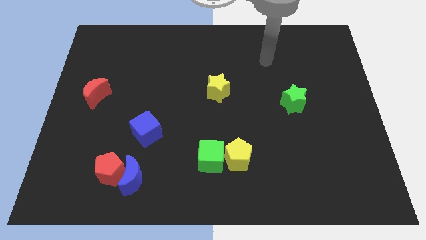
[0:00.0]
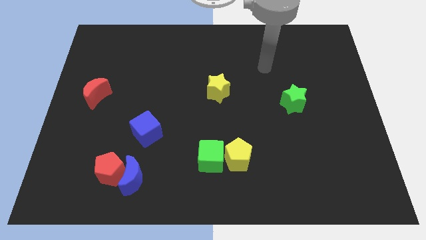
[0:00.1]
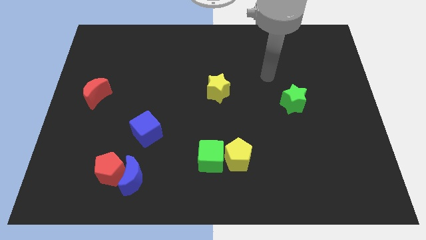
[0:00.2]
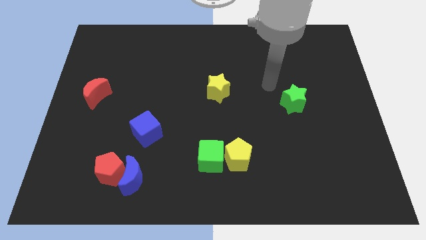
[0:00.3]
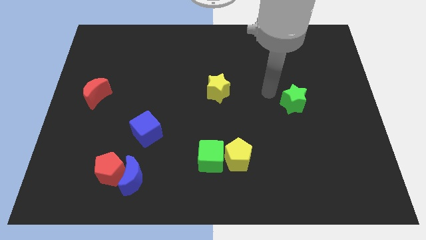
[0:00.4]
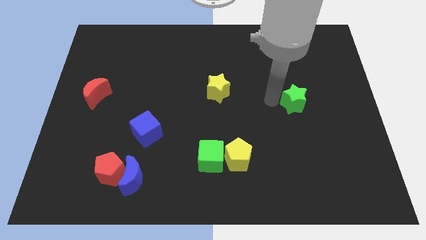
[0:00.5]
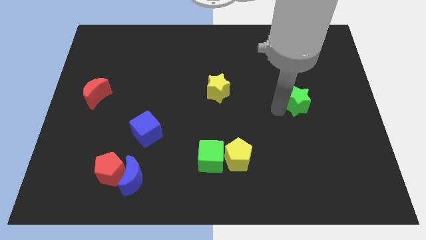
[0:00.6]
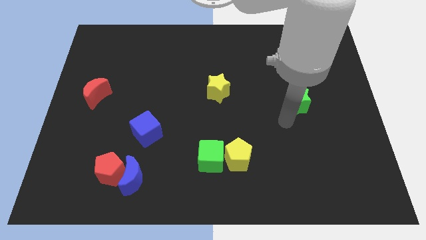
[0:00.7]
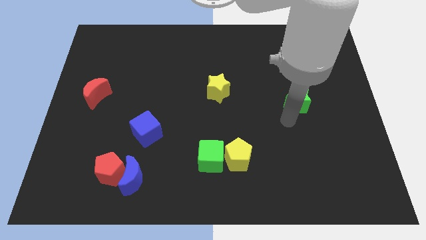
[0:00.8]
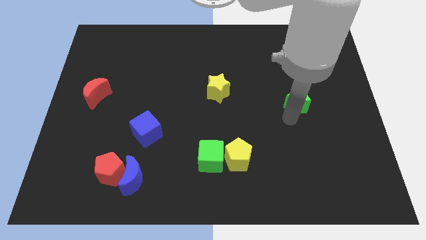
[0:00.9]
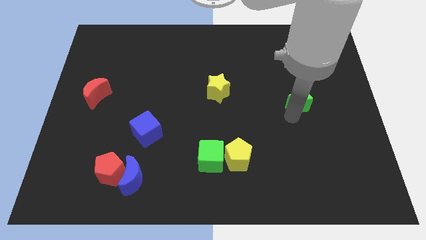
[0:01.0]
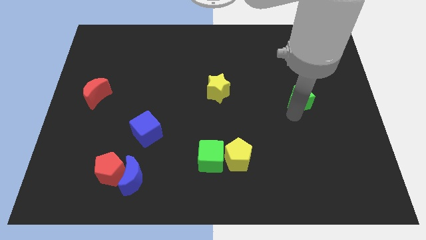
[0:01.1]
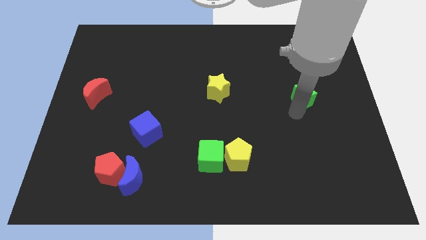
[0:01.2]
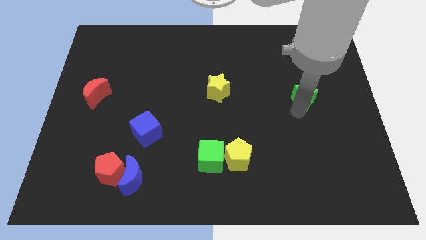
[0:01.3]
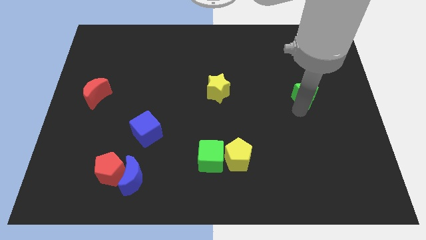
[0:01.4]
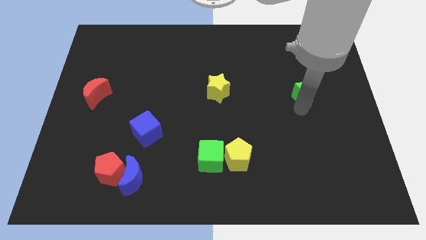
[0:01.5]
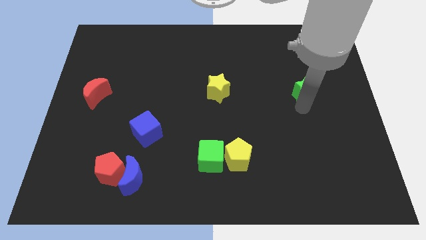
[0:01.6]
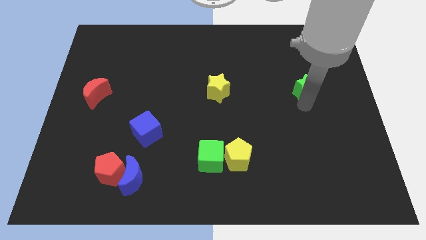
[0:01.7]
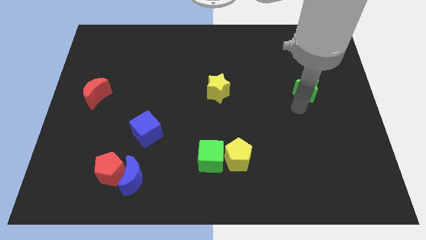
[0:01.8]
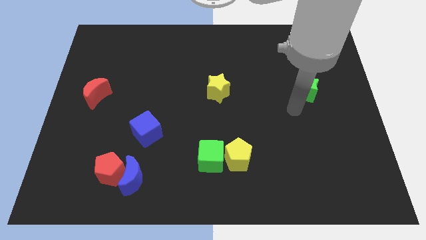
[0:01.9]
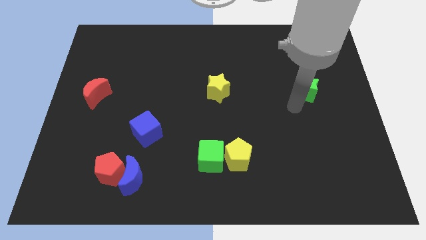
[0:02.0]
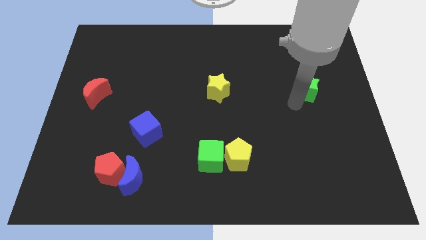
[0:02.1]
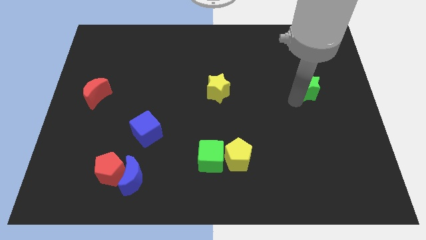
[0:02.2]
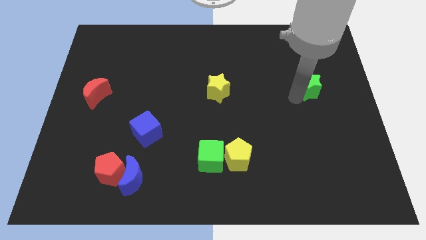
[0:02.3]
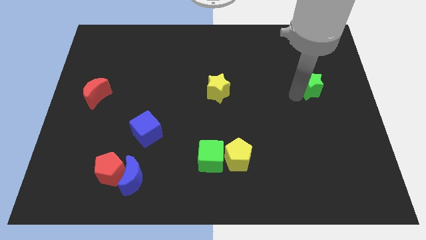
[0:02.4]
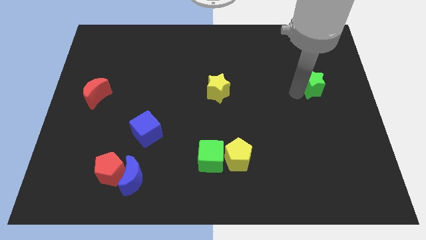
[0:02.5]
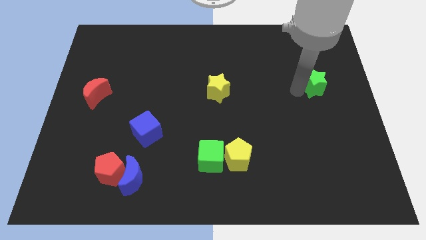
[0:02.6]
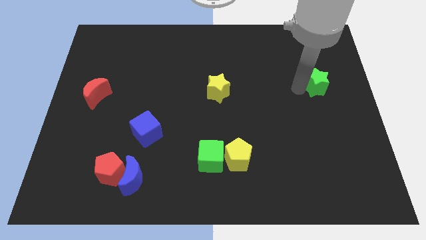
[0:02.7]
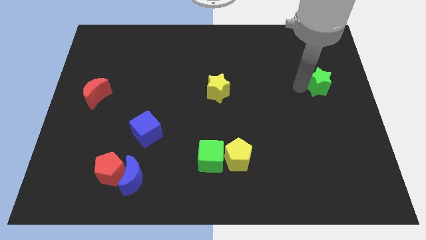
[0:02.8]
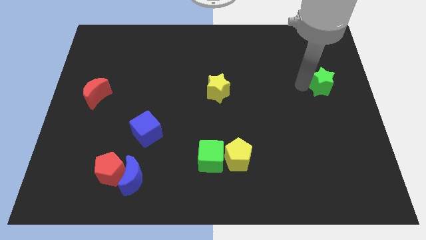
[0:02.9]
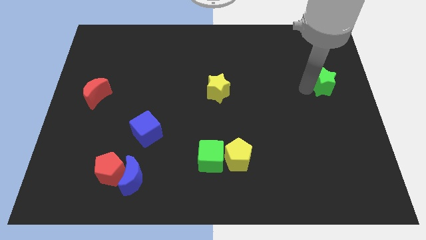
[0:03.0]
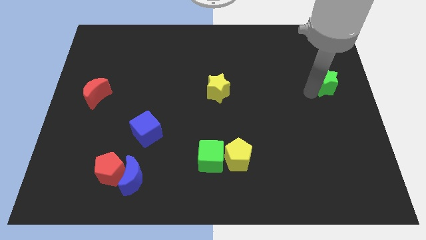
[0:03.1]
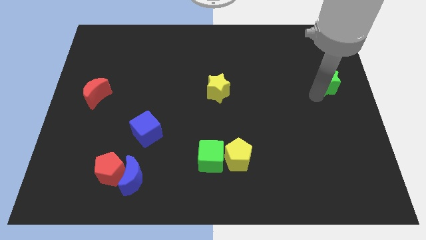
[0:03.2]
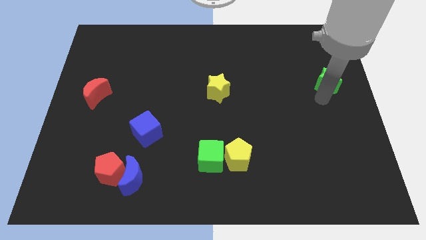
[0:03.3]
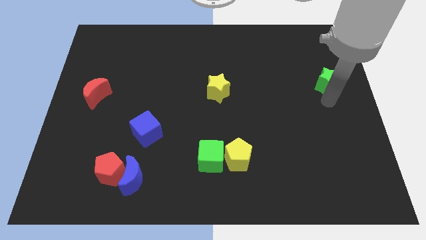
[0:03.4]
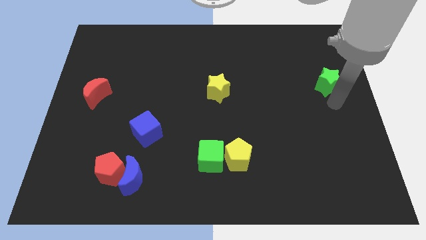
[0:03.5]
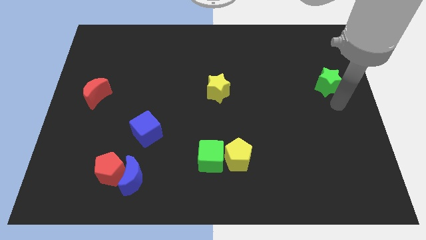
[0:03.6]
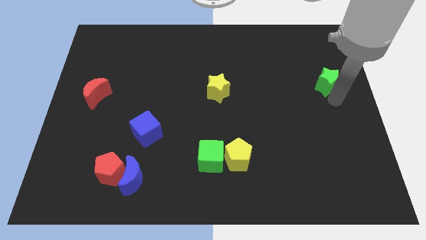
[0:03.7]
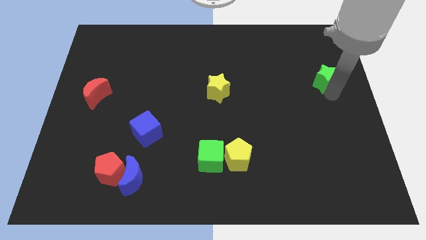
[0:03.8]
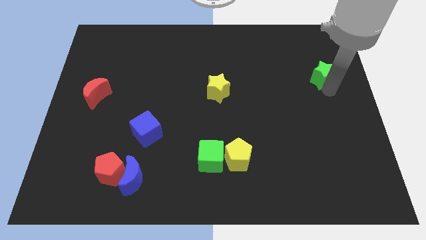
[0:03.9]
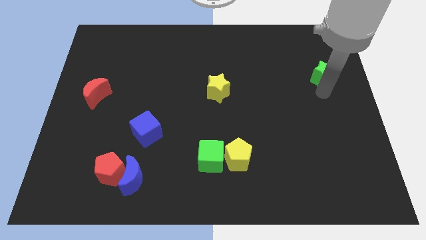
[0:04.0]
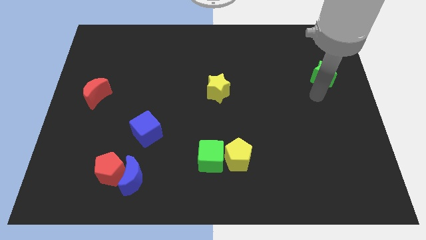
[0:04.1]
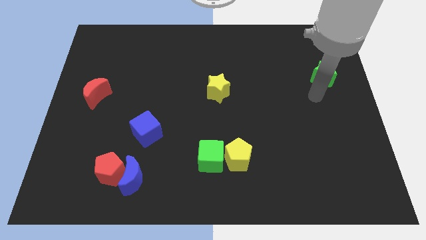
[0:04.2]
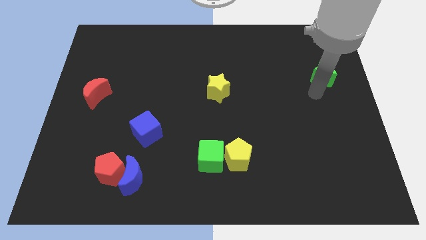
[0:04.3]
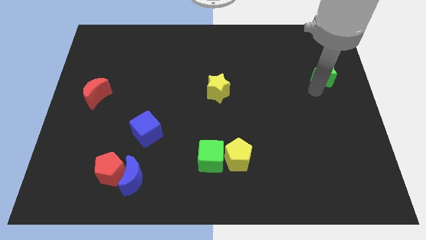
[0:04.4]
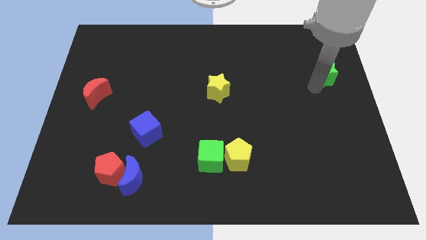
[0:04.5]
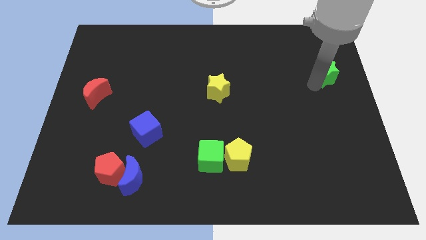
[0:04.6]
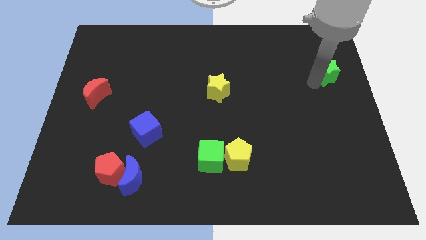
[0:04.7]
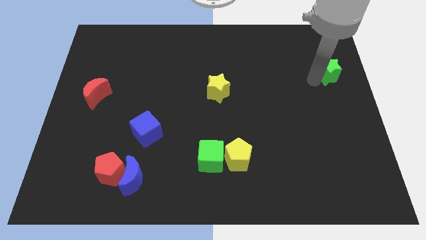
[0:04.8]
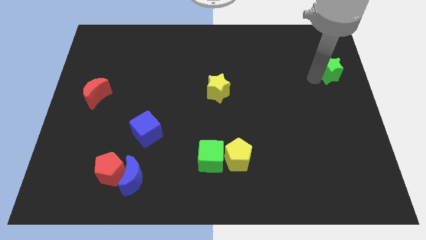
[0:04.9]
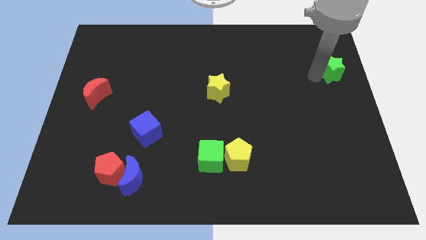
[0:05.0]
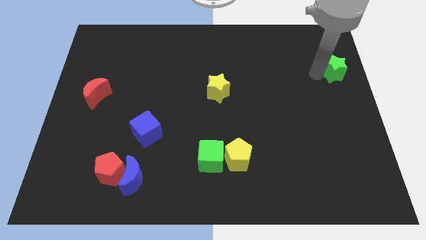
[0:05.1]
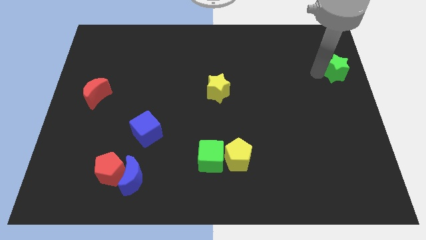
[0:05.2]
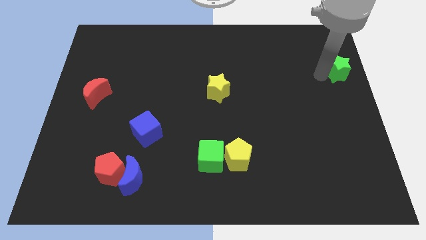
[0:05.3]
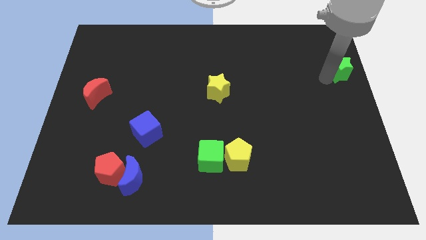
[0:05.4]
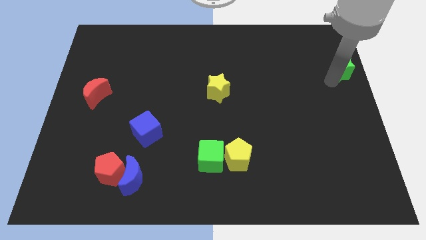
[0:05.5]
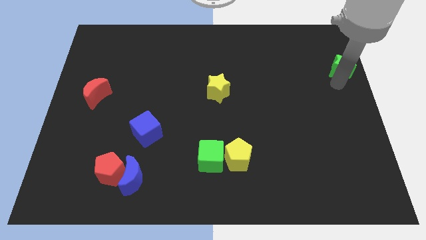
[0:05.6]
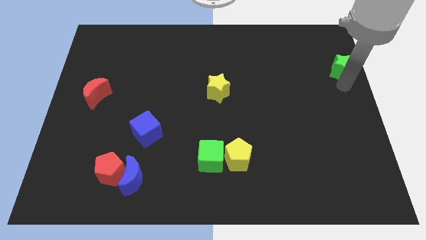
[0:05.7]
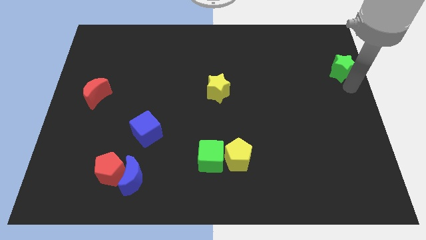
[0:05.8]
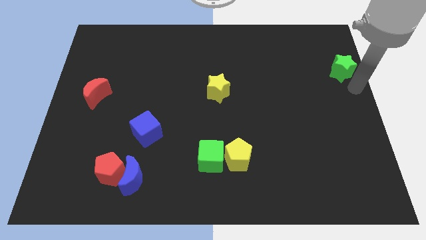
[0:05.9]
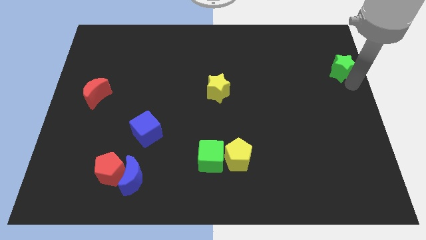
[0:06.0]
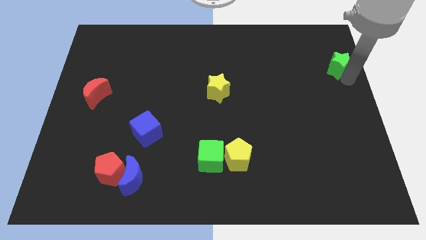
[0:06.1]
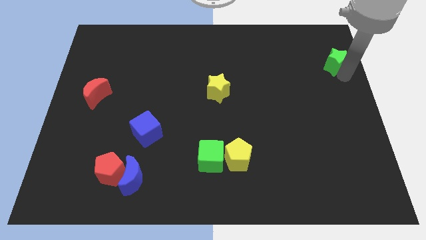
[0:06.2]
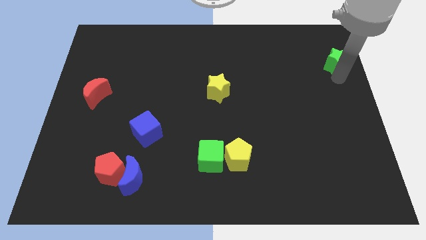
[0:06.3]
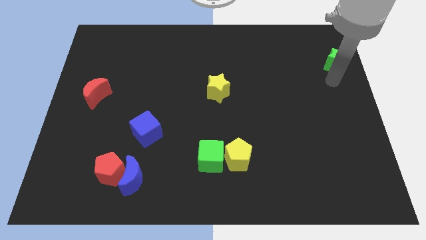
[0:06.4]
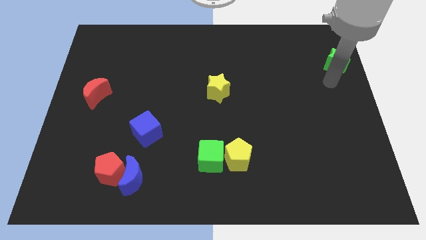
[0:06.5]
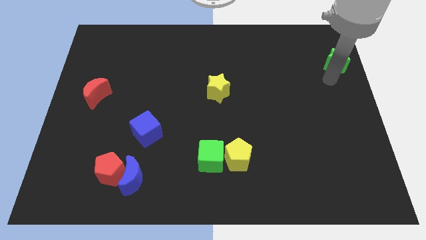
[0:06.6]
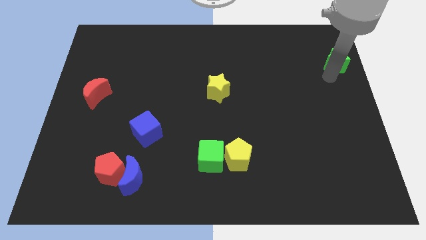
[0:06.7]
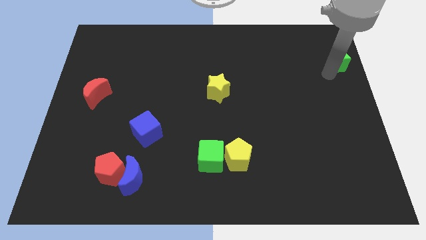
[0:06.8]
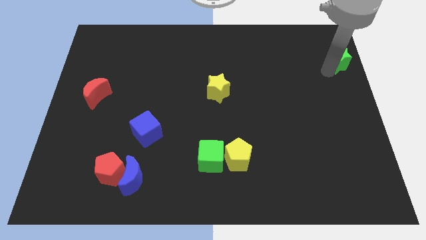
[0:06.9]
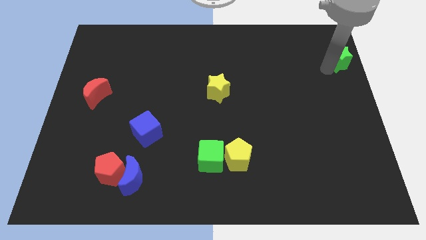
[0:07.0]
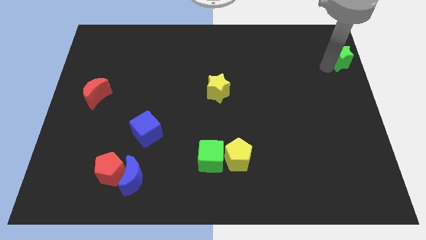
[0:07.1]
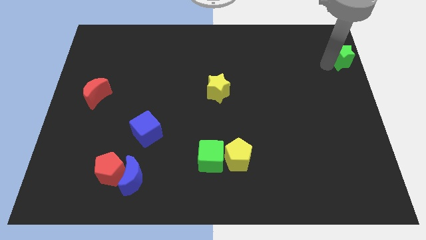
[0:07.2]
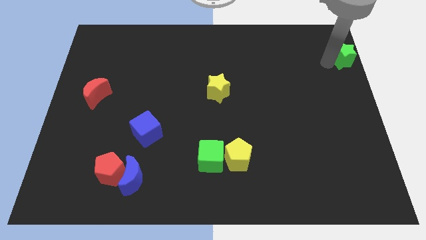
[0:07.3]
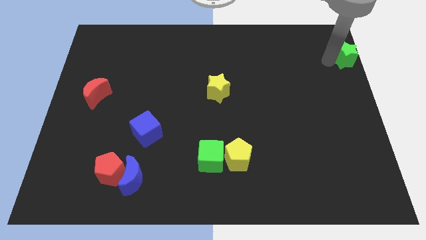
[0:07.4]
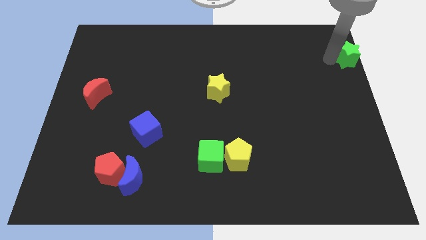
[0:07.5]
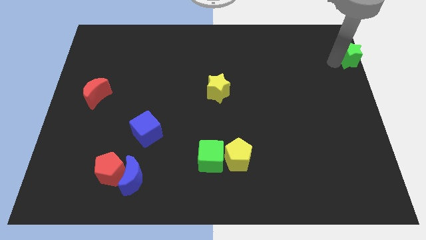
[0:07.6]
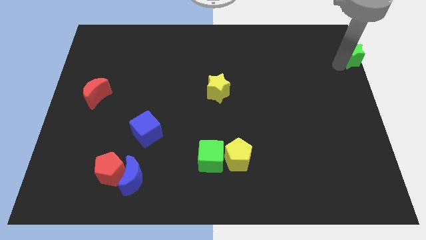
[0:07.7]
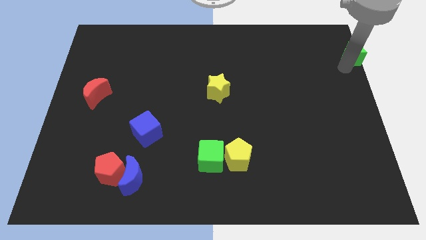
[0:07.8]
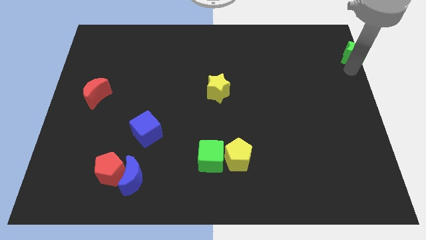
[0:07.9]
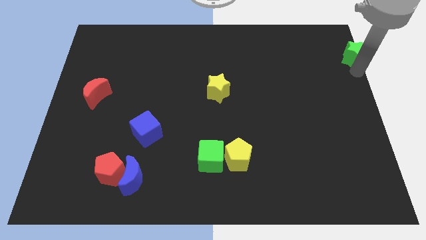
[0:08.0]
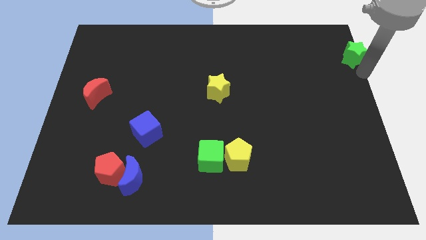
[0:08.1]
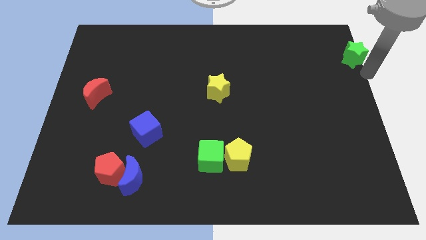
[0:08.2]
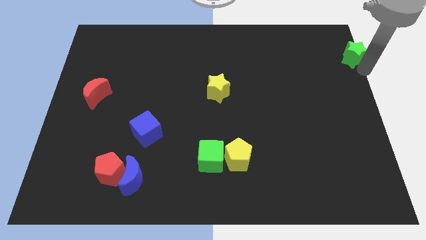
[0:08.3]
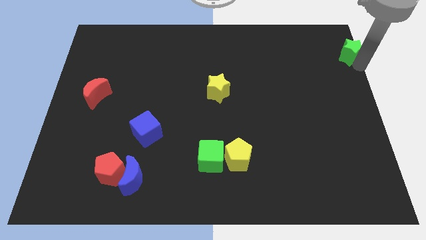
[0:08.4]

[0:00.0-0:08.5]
slide the green star to the upper right corner
